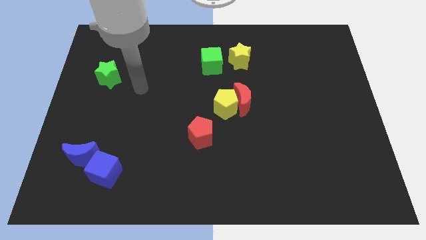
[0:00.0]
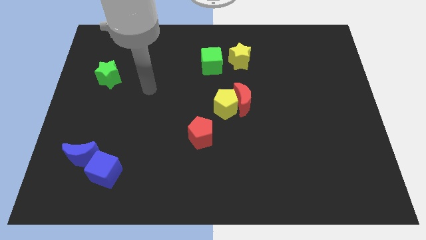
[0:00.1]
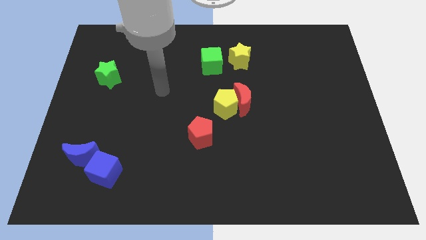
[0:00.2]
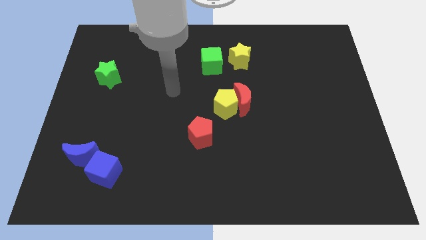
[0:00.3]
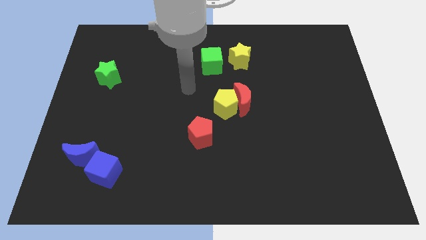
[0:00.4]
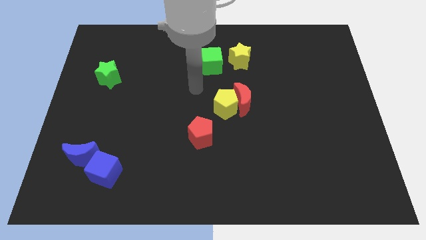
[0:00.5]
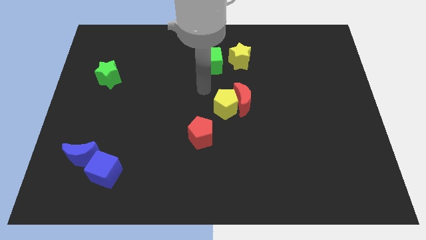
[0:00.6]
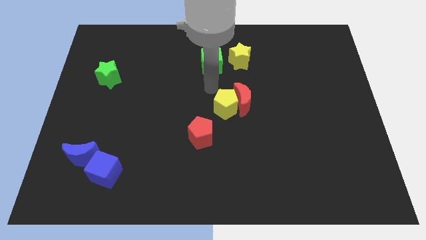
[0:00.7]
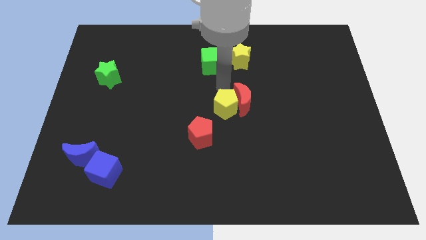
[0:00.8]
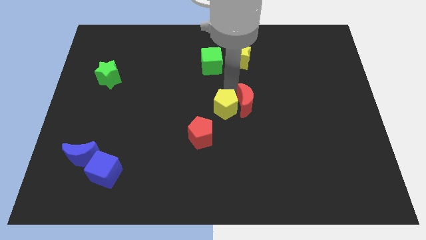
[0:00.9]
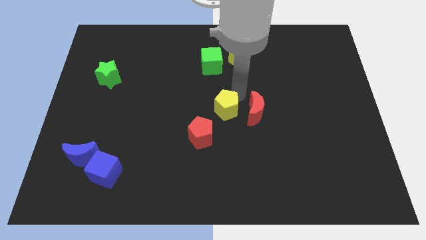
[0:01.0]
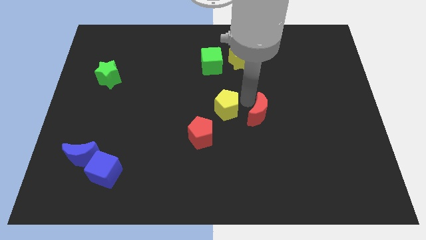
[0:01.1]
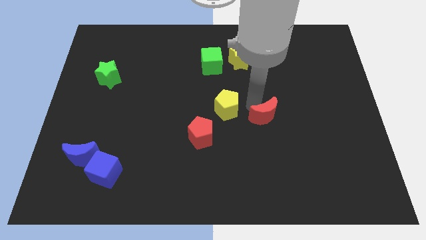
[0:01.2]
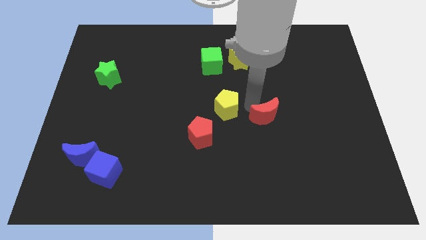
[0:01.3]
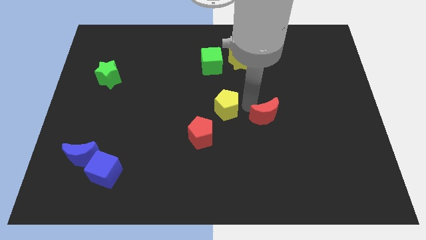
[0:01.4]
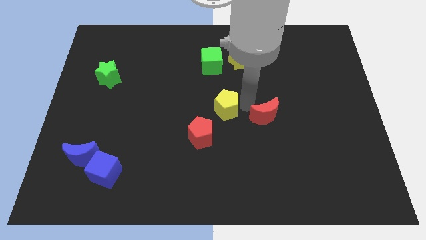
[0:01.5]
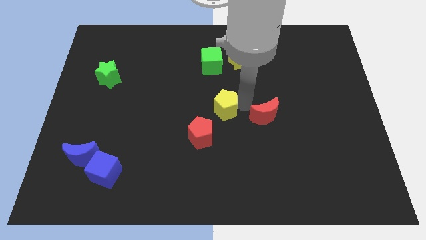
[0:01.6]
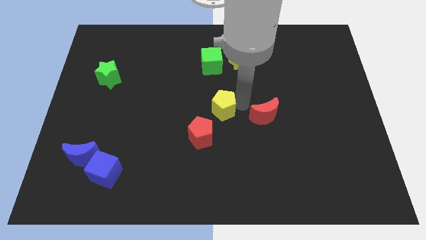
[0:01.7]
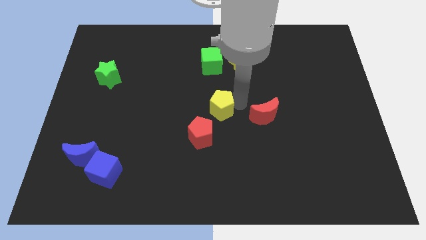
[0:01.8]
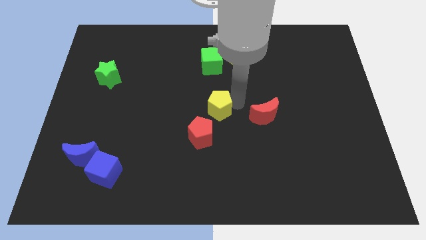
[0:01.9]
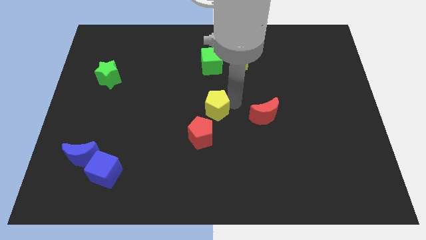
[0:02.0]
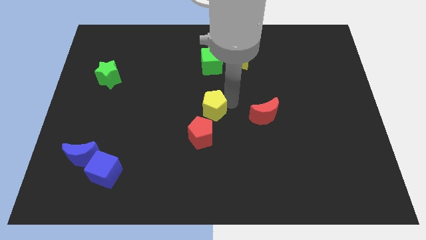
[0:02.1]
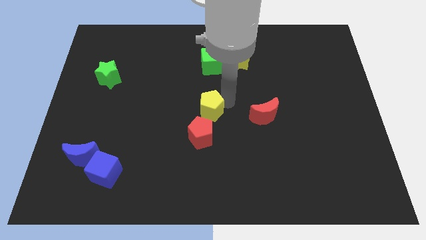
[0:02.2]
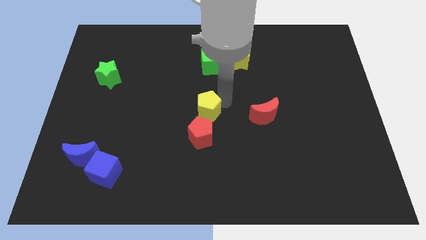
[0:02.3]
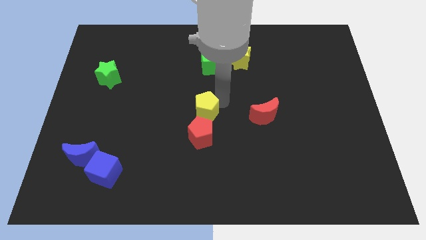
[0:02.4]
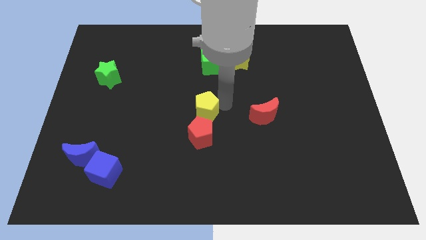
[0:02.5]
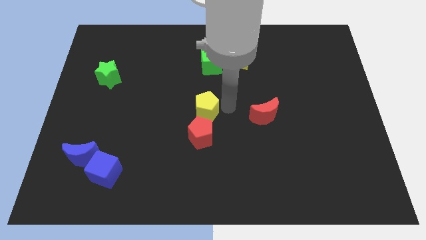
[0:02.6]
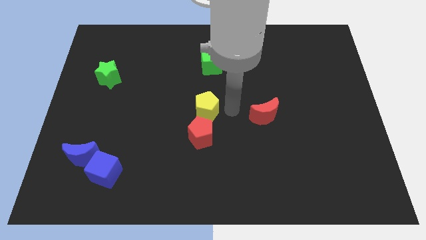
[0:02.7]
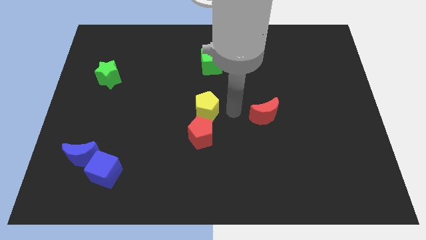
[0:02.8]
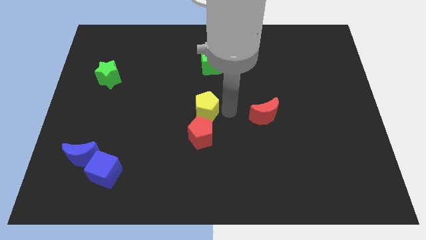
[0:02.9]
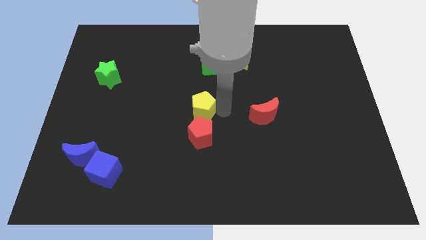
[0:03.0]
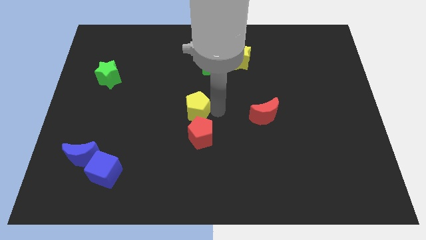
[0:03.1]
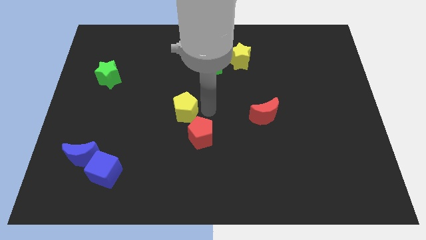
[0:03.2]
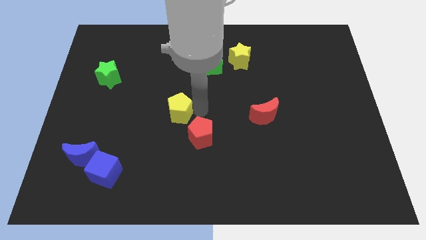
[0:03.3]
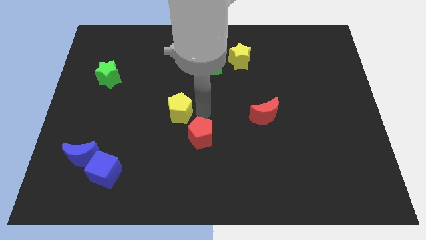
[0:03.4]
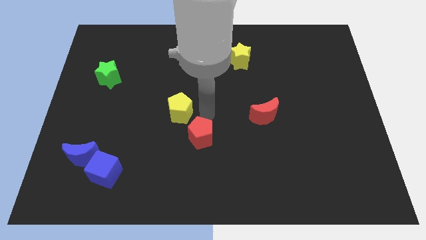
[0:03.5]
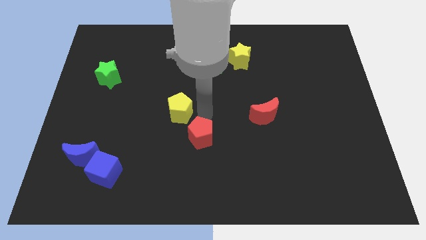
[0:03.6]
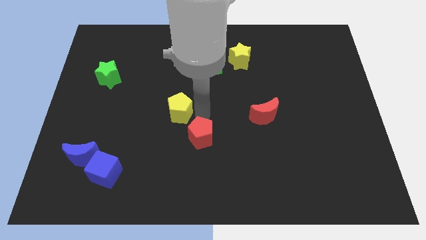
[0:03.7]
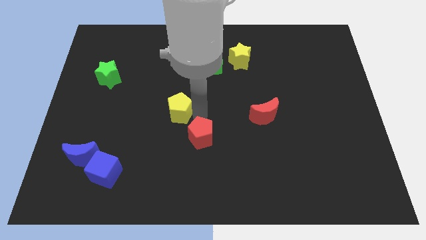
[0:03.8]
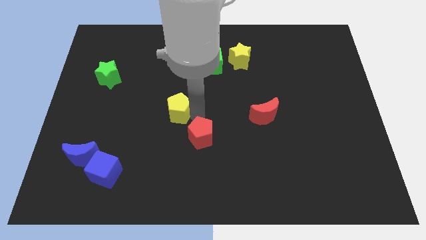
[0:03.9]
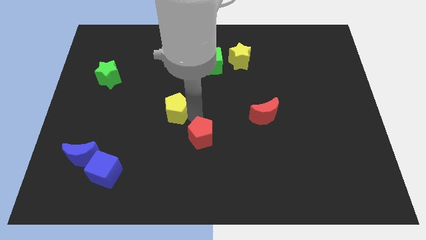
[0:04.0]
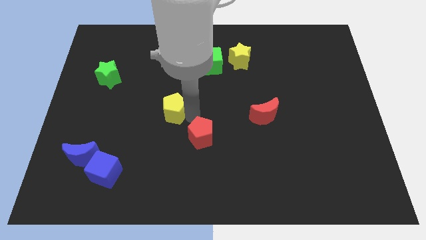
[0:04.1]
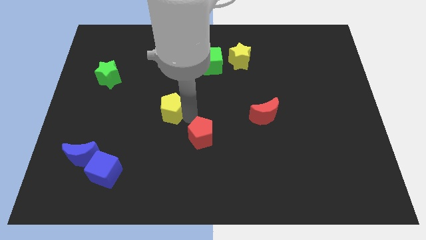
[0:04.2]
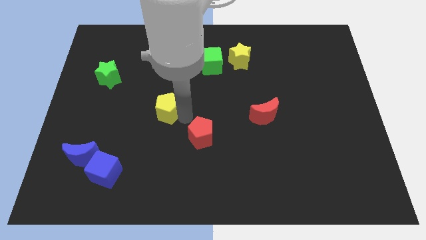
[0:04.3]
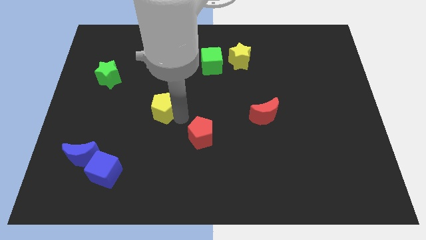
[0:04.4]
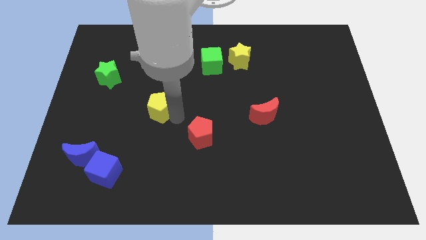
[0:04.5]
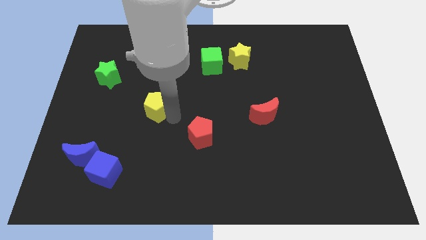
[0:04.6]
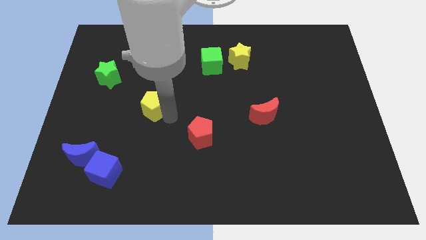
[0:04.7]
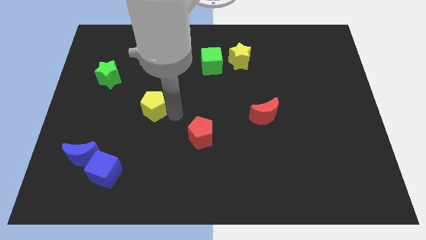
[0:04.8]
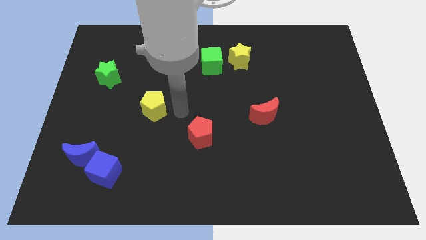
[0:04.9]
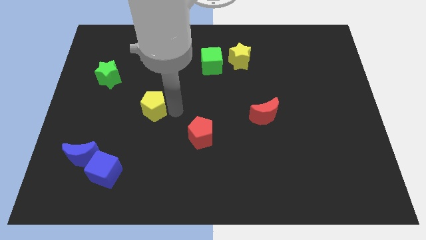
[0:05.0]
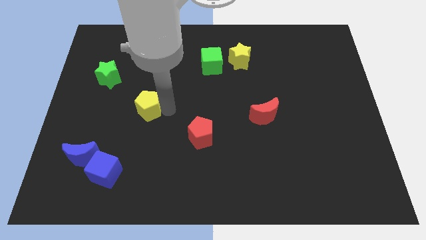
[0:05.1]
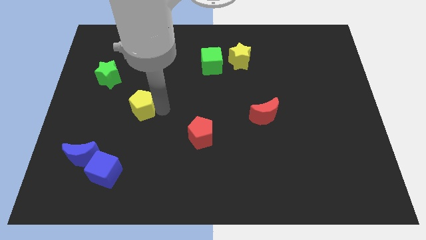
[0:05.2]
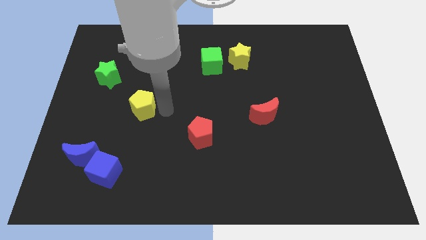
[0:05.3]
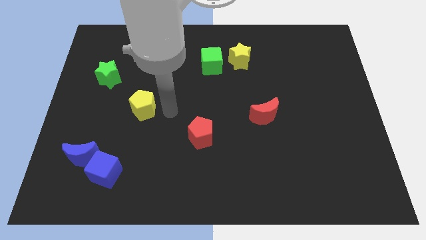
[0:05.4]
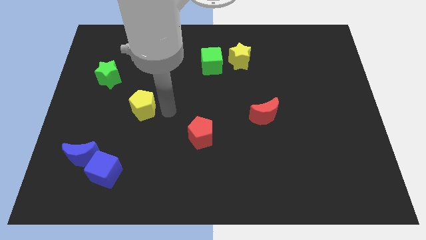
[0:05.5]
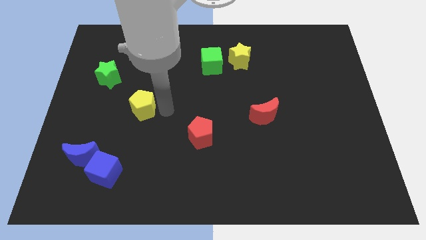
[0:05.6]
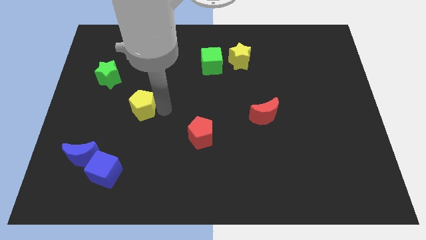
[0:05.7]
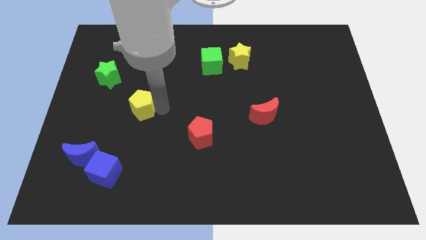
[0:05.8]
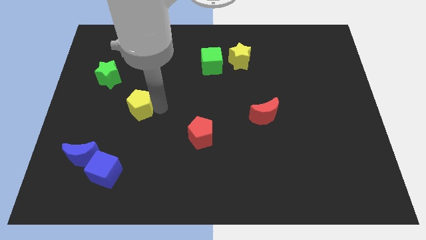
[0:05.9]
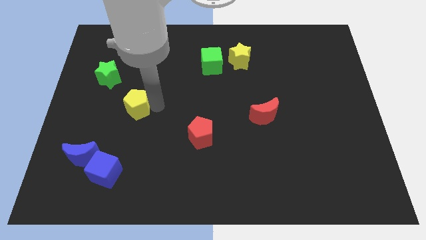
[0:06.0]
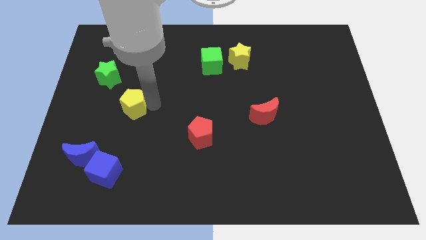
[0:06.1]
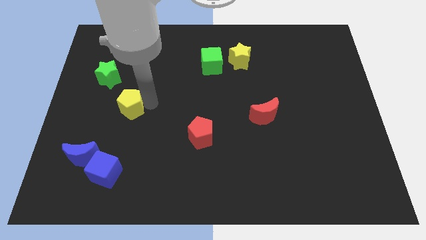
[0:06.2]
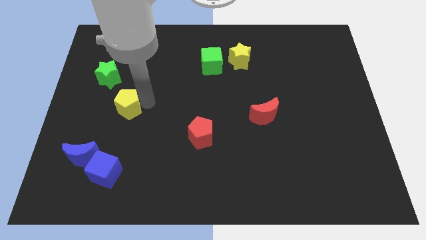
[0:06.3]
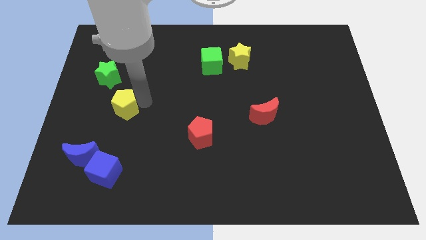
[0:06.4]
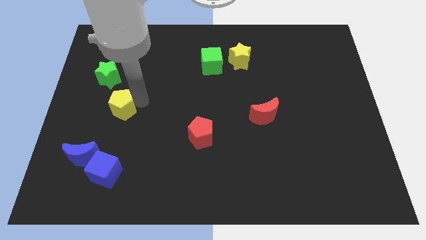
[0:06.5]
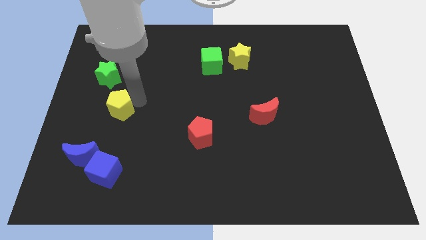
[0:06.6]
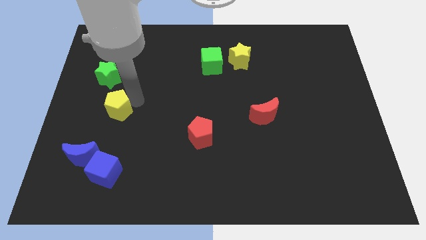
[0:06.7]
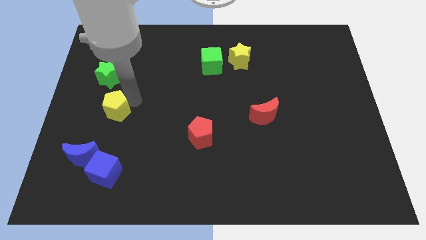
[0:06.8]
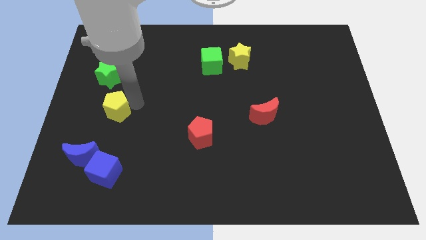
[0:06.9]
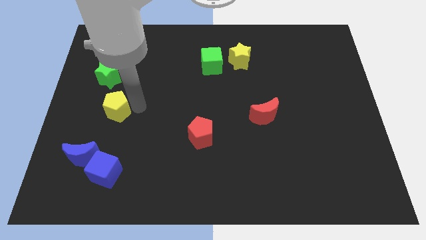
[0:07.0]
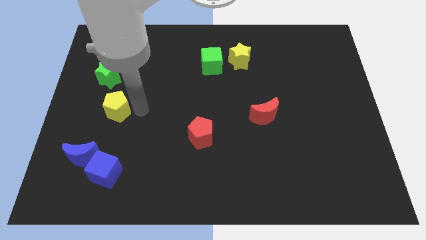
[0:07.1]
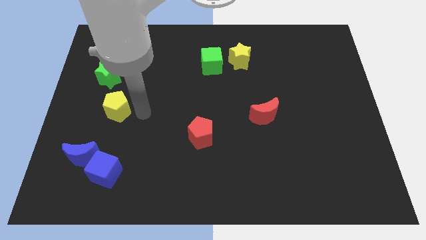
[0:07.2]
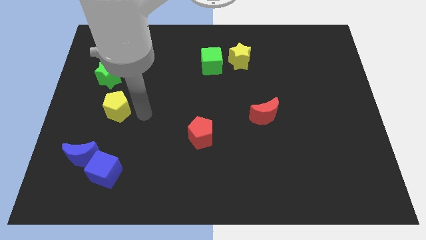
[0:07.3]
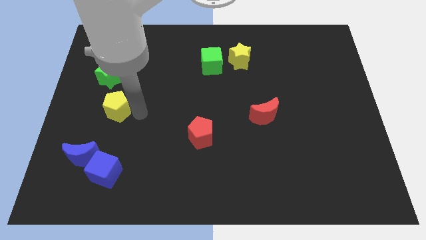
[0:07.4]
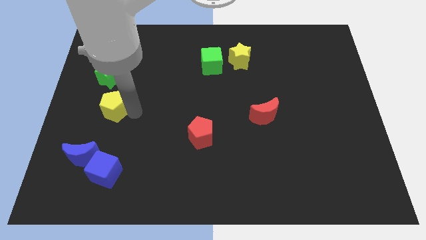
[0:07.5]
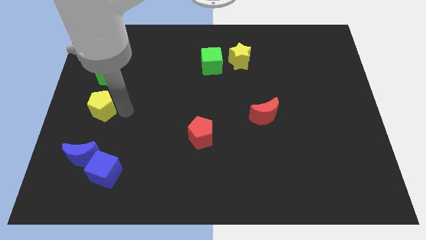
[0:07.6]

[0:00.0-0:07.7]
push the yellow pentagon to the left side
